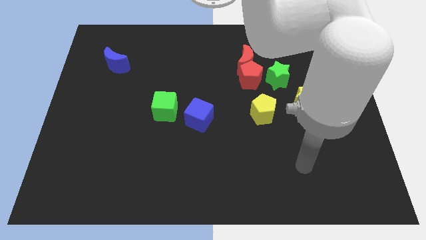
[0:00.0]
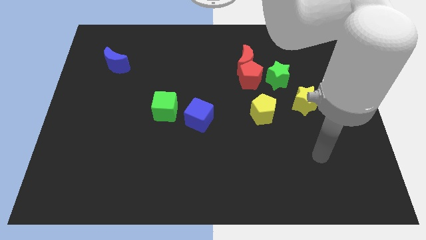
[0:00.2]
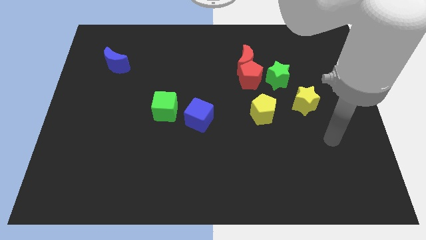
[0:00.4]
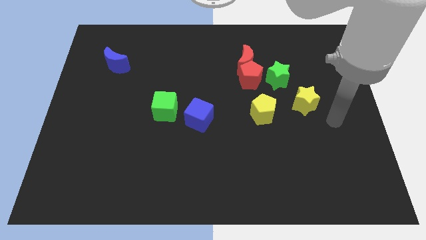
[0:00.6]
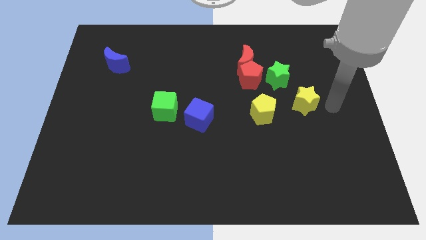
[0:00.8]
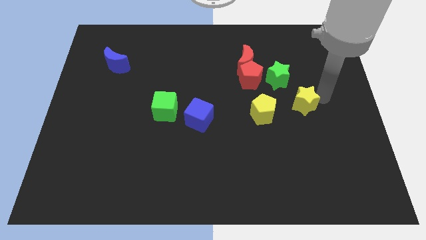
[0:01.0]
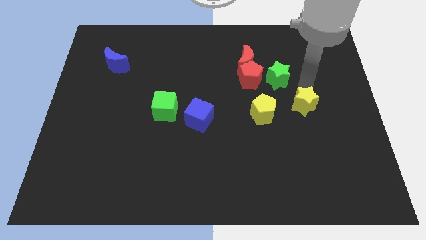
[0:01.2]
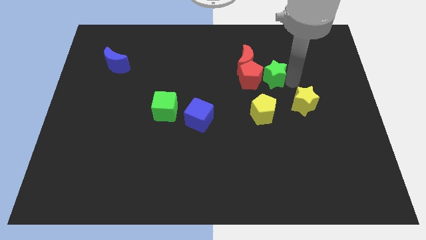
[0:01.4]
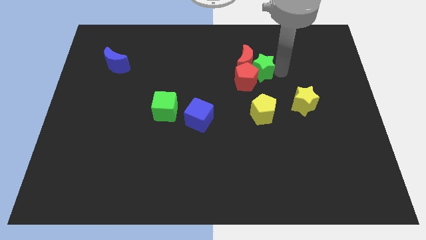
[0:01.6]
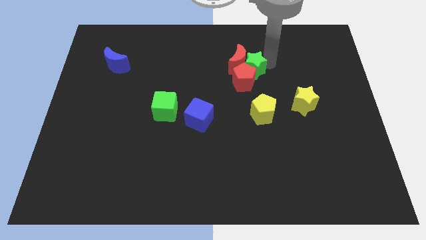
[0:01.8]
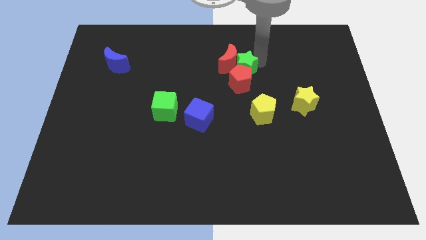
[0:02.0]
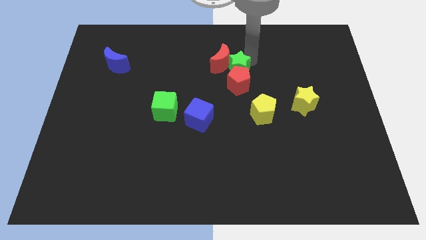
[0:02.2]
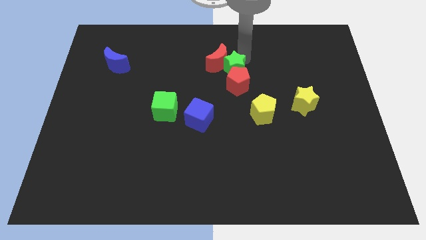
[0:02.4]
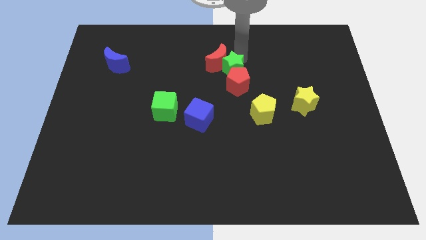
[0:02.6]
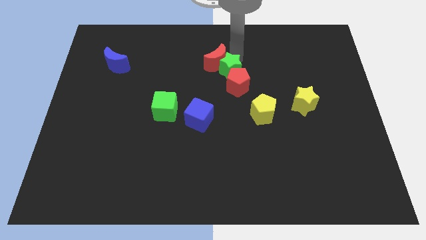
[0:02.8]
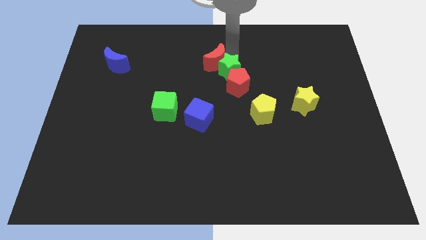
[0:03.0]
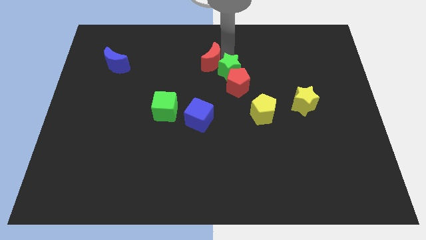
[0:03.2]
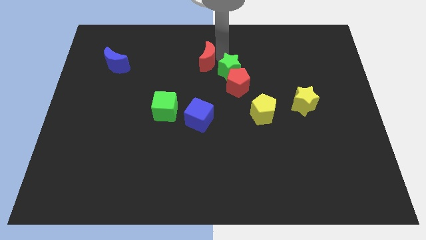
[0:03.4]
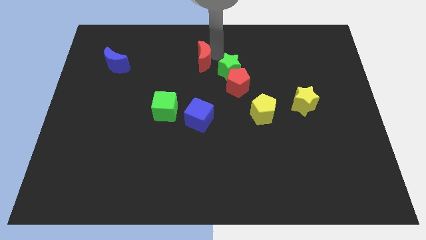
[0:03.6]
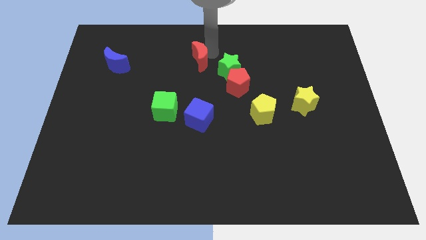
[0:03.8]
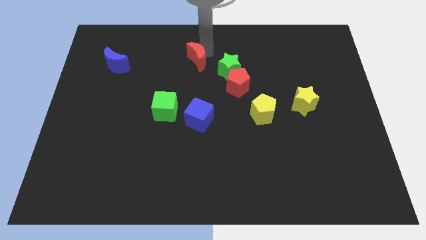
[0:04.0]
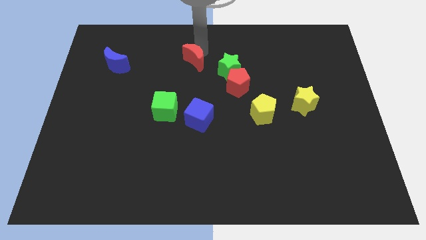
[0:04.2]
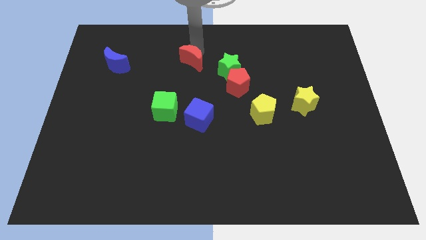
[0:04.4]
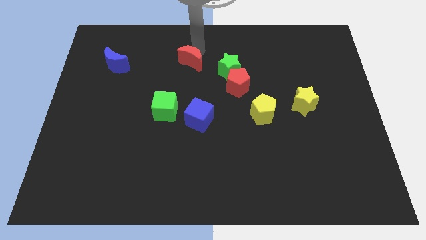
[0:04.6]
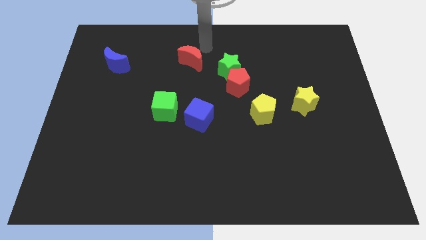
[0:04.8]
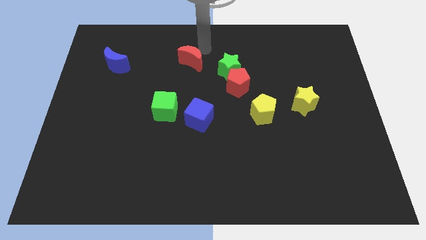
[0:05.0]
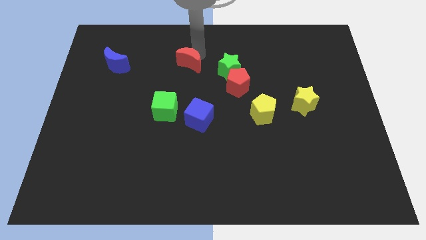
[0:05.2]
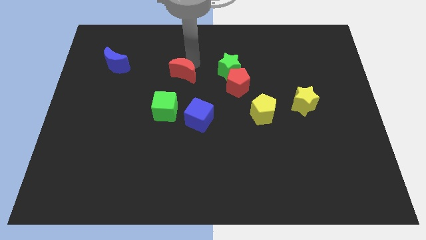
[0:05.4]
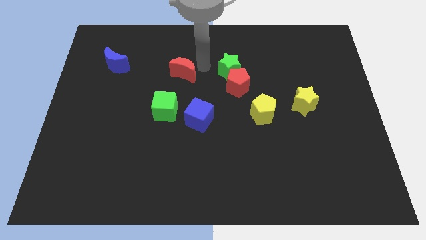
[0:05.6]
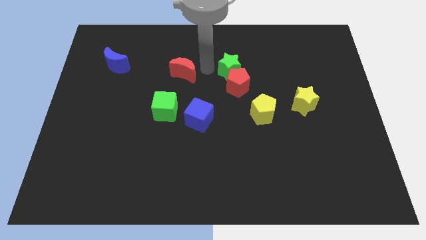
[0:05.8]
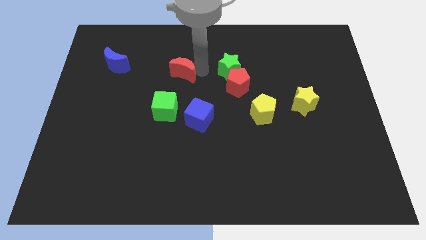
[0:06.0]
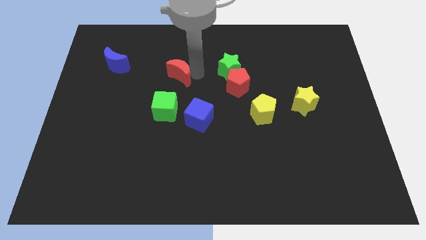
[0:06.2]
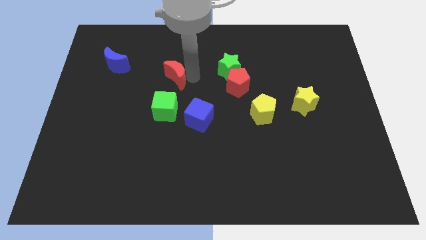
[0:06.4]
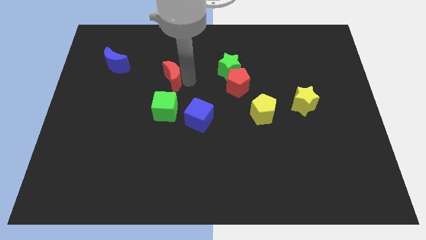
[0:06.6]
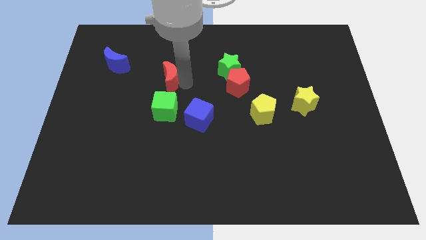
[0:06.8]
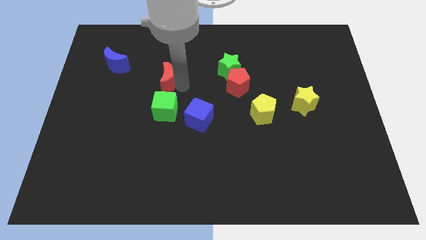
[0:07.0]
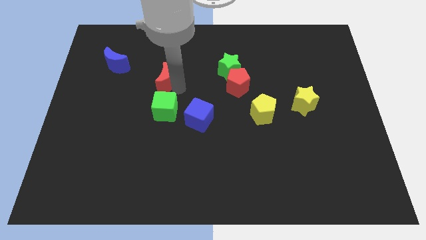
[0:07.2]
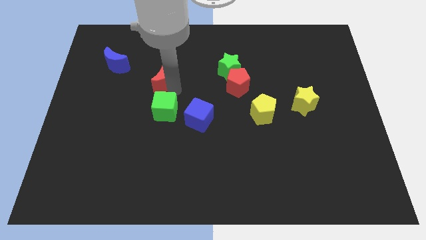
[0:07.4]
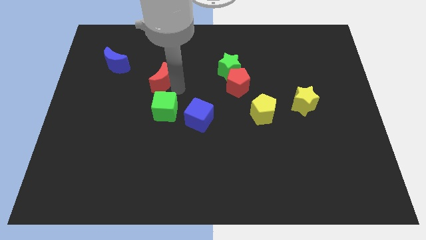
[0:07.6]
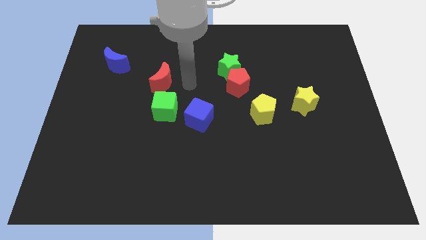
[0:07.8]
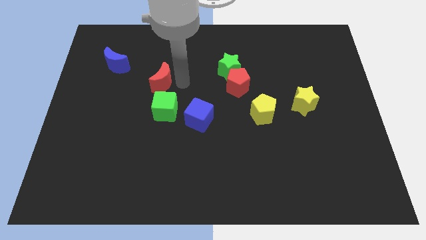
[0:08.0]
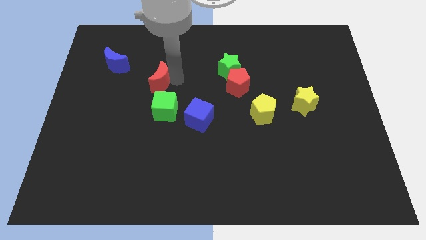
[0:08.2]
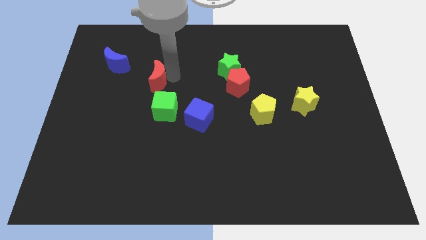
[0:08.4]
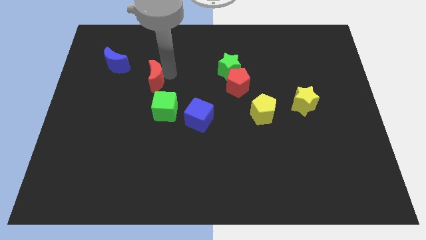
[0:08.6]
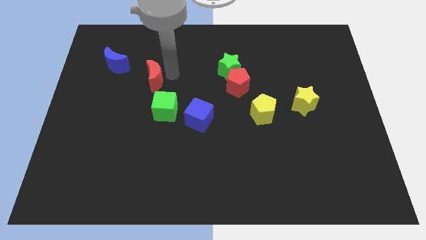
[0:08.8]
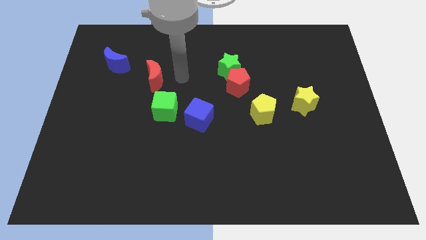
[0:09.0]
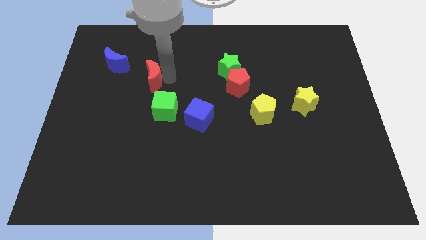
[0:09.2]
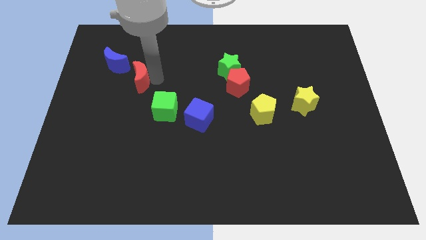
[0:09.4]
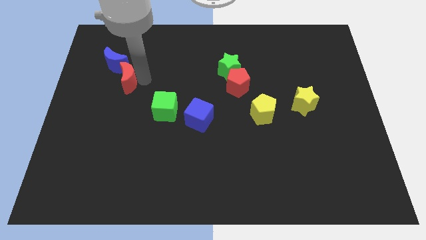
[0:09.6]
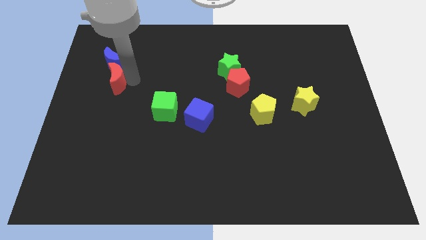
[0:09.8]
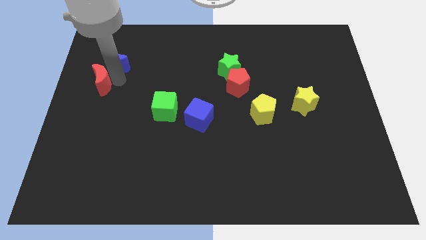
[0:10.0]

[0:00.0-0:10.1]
move the red moon to the center left
